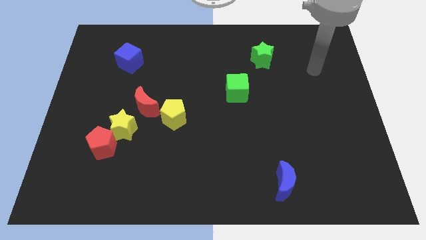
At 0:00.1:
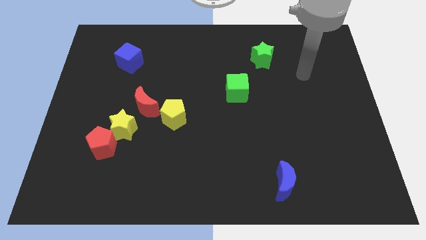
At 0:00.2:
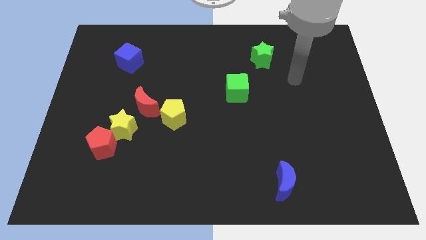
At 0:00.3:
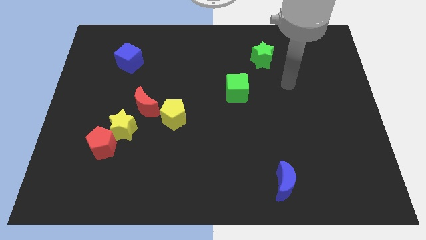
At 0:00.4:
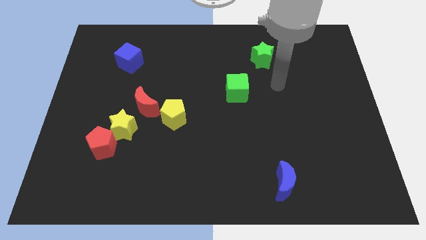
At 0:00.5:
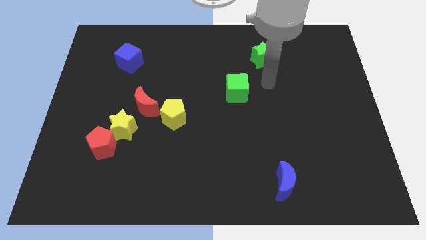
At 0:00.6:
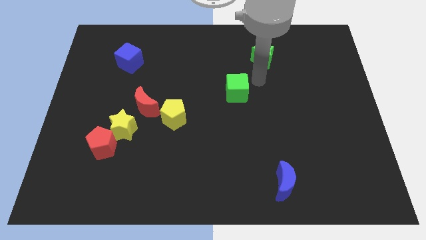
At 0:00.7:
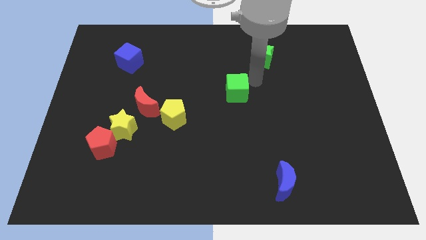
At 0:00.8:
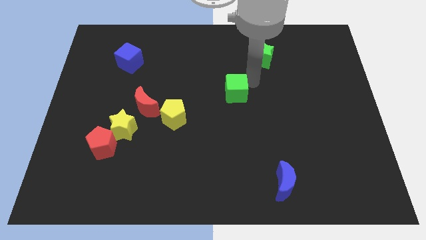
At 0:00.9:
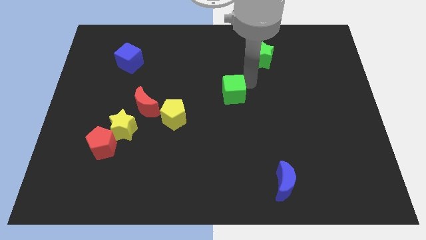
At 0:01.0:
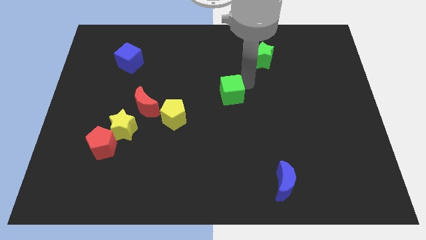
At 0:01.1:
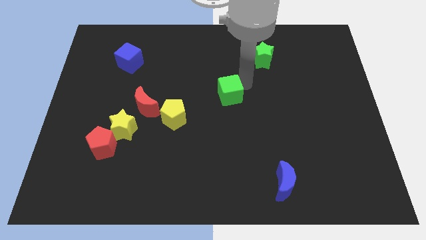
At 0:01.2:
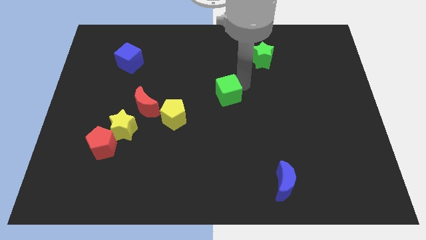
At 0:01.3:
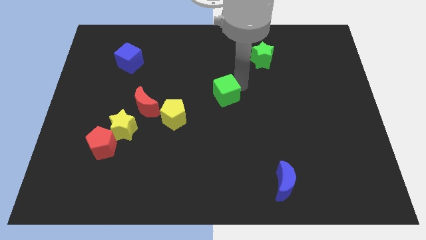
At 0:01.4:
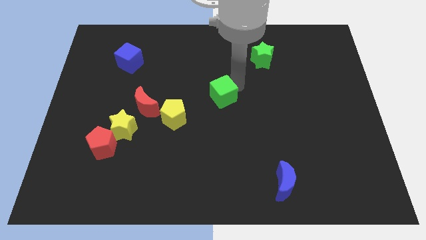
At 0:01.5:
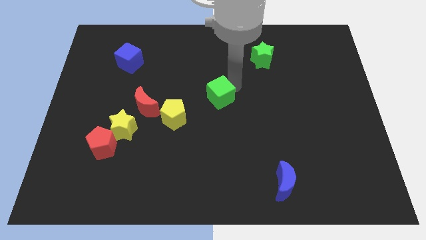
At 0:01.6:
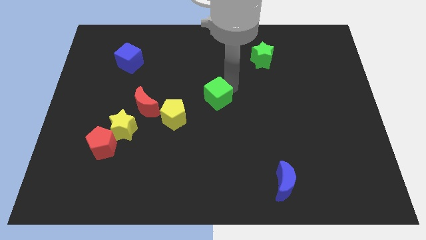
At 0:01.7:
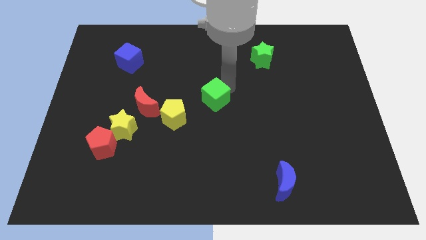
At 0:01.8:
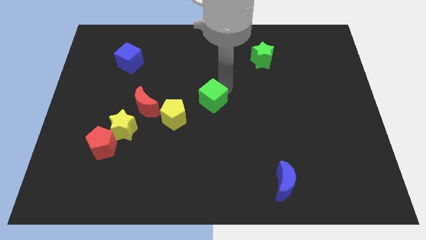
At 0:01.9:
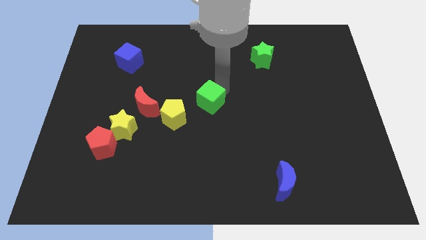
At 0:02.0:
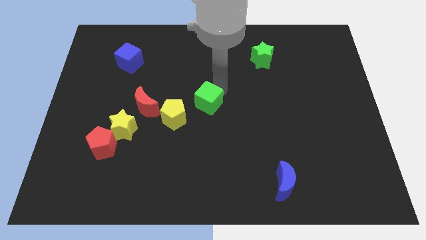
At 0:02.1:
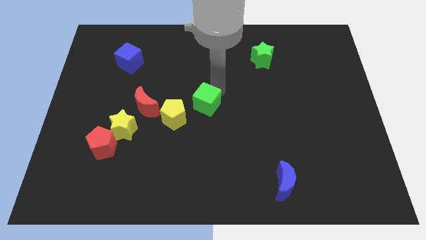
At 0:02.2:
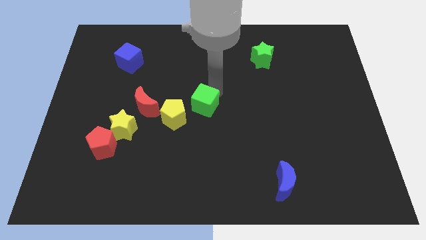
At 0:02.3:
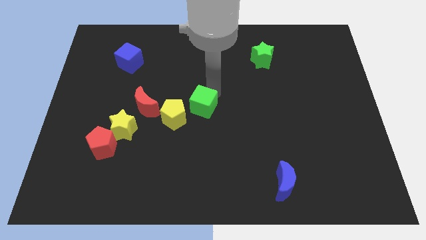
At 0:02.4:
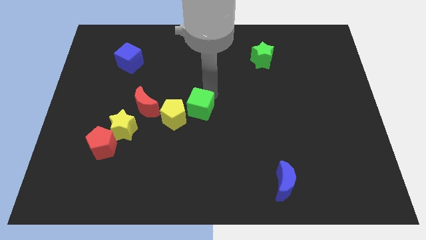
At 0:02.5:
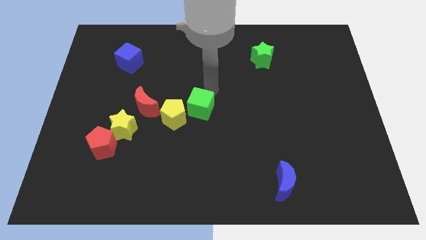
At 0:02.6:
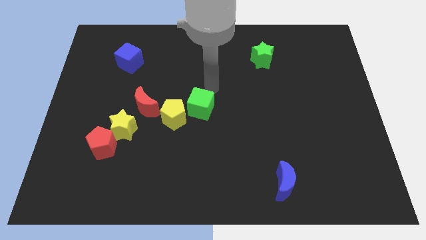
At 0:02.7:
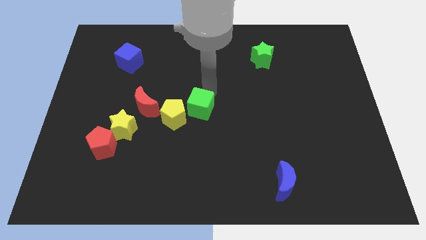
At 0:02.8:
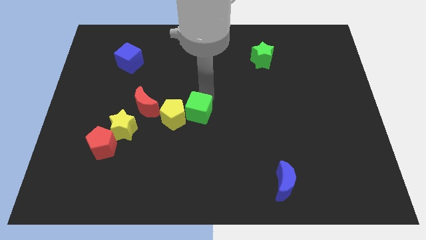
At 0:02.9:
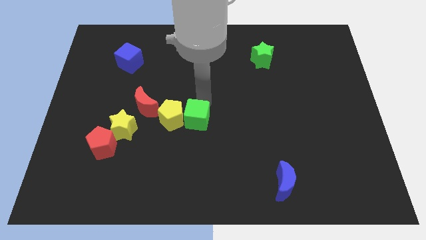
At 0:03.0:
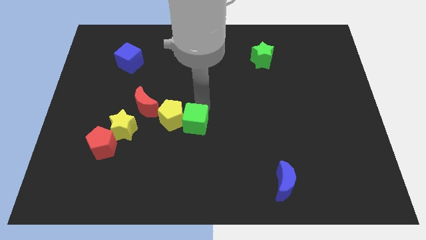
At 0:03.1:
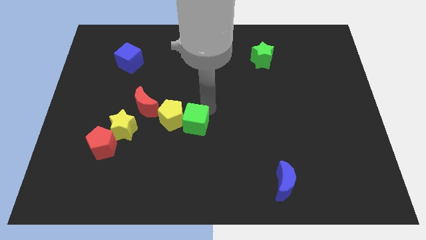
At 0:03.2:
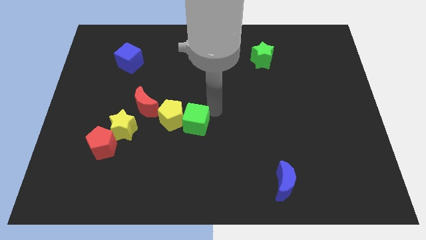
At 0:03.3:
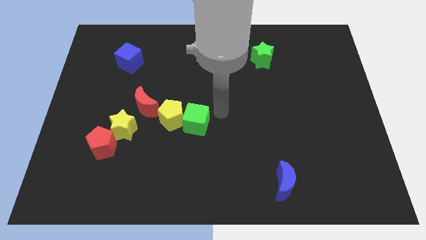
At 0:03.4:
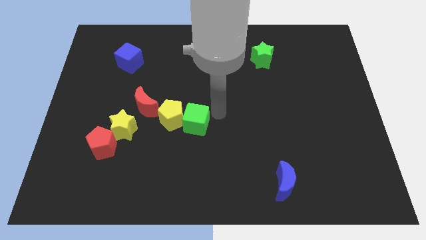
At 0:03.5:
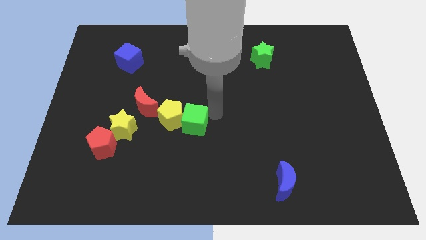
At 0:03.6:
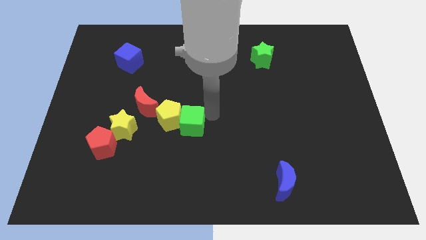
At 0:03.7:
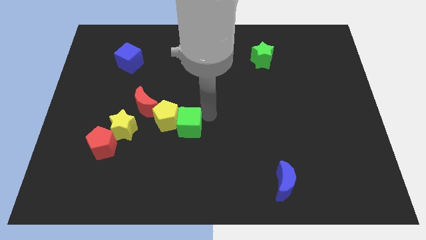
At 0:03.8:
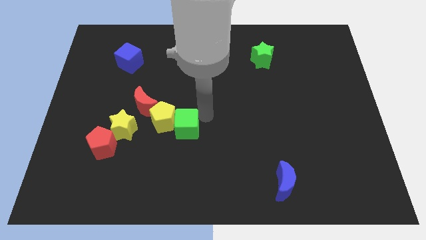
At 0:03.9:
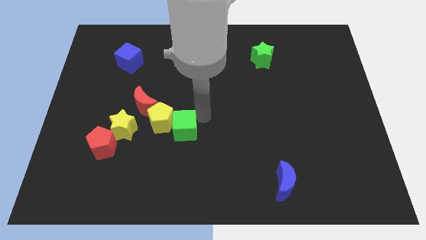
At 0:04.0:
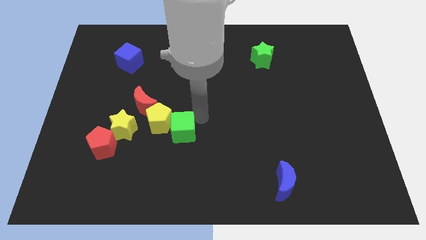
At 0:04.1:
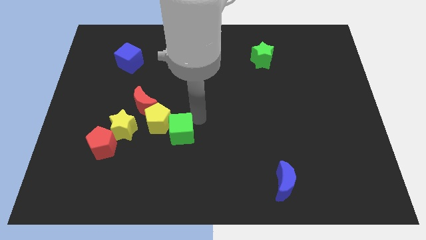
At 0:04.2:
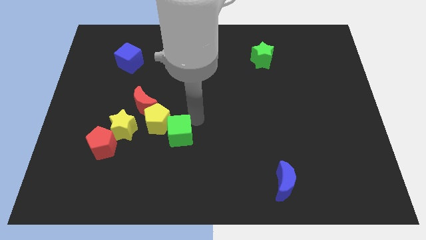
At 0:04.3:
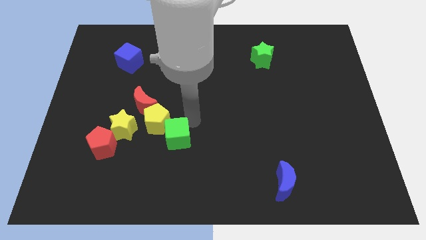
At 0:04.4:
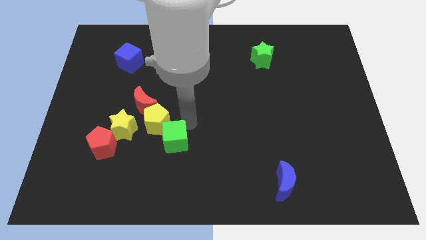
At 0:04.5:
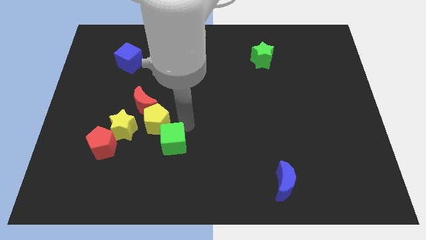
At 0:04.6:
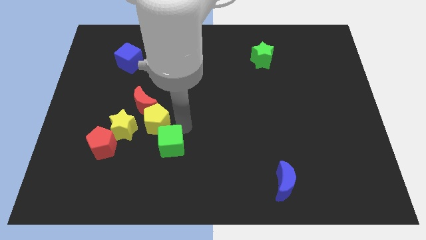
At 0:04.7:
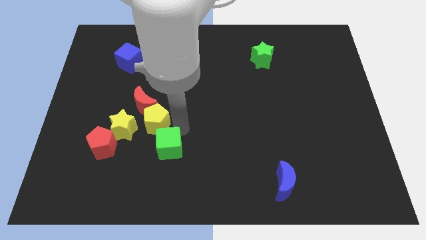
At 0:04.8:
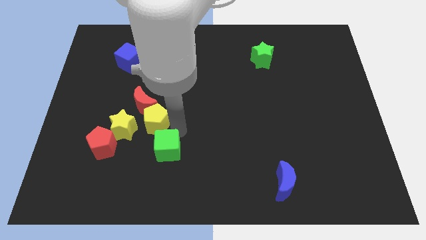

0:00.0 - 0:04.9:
move the green cube to the bottom right of the yellow star

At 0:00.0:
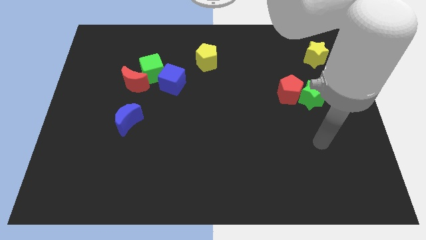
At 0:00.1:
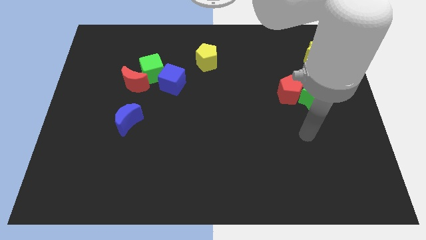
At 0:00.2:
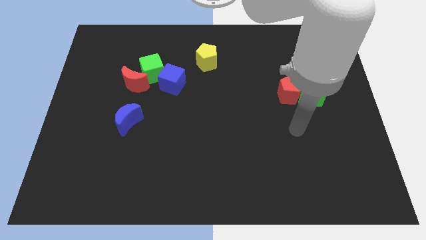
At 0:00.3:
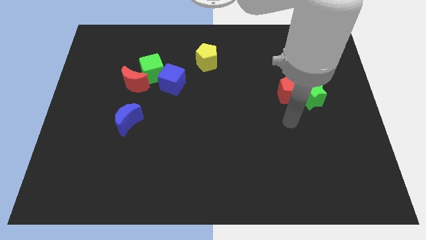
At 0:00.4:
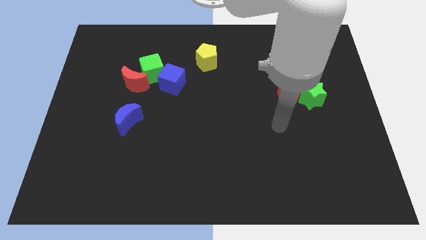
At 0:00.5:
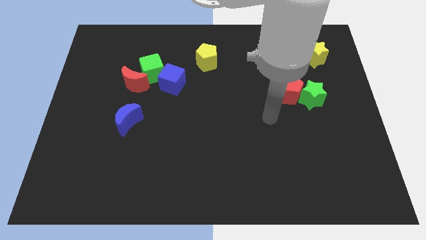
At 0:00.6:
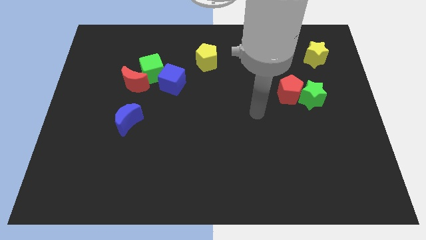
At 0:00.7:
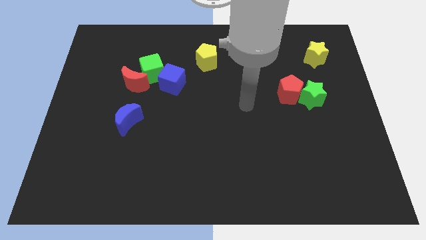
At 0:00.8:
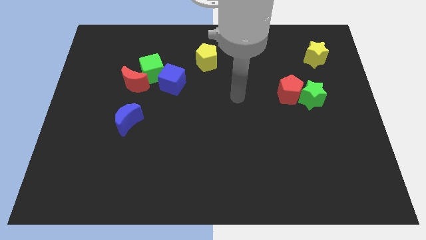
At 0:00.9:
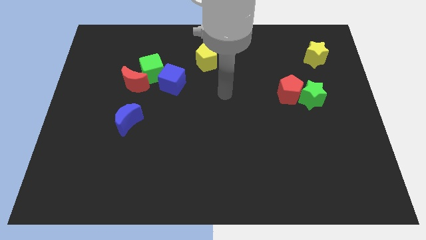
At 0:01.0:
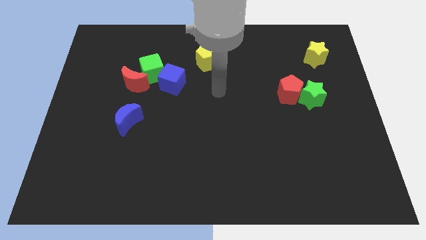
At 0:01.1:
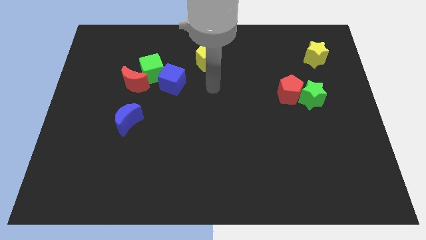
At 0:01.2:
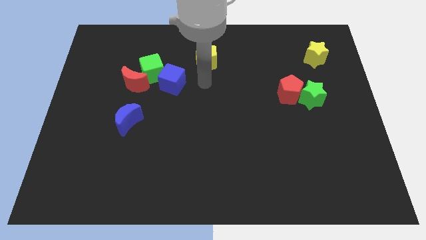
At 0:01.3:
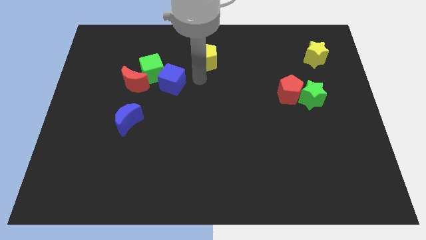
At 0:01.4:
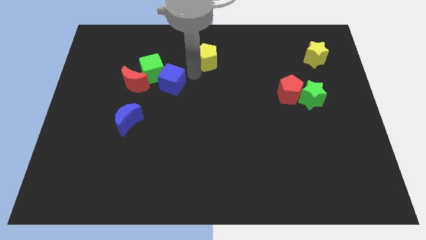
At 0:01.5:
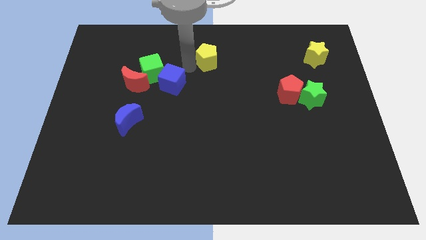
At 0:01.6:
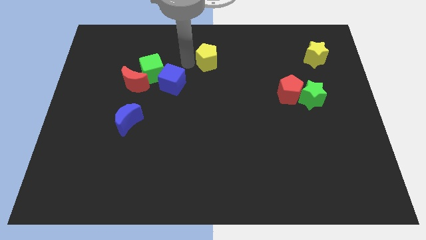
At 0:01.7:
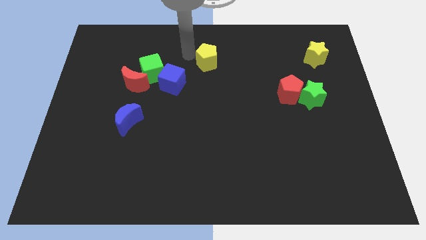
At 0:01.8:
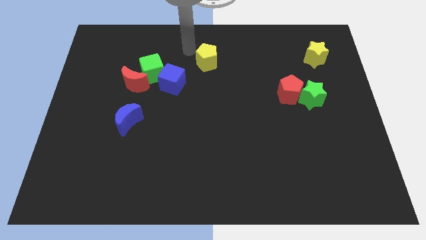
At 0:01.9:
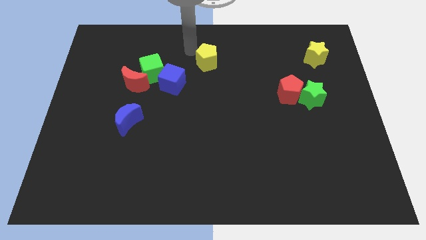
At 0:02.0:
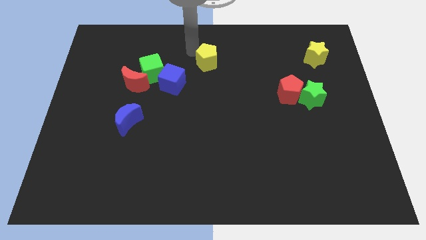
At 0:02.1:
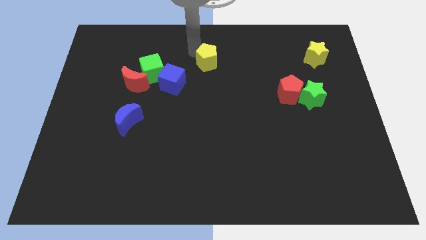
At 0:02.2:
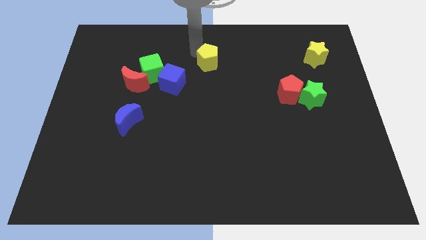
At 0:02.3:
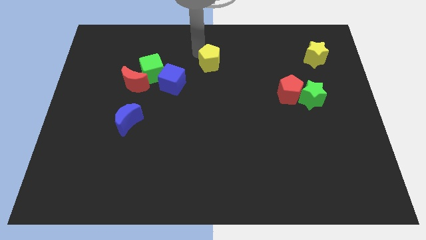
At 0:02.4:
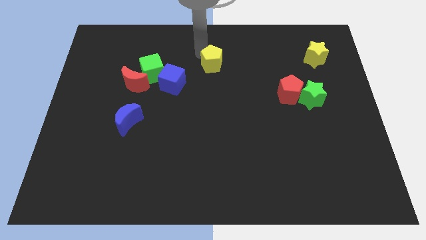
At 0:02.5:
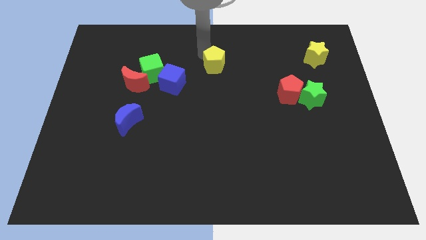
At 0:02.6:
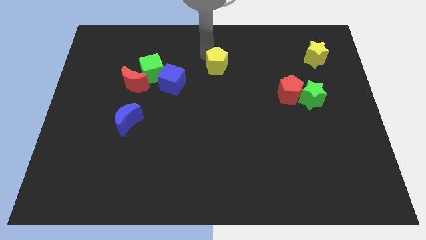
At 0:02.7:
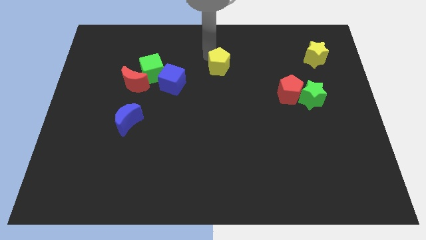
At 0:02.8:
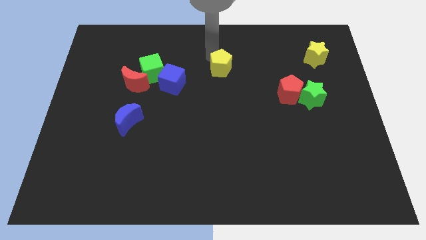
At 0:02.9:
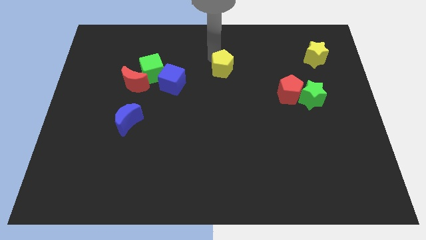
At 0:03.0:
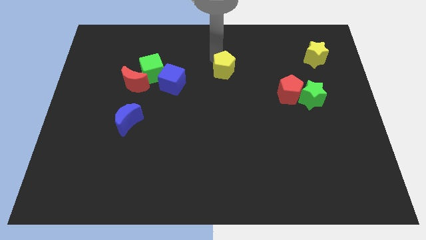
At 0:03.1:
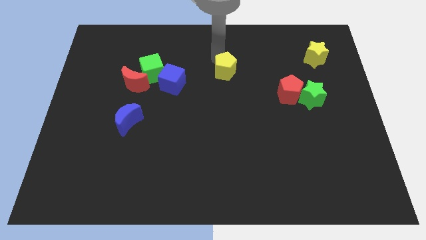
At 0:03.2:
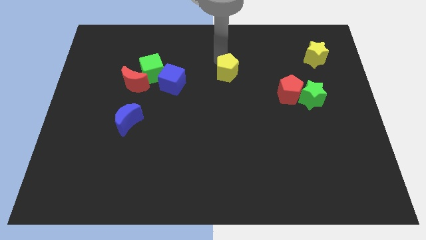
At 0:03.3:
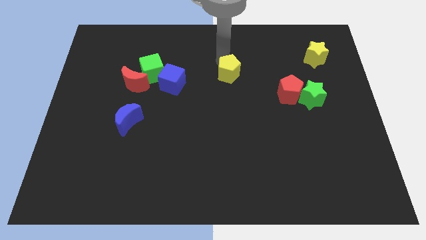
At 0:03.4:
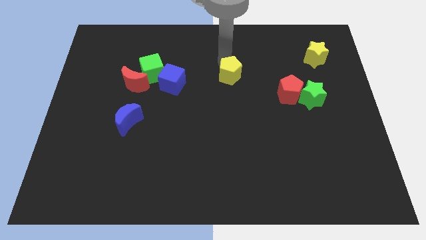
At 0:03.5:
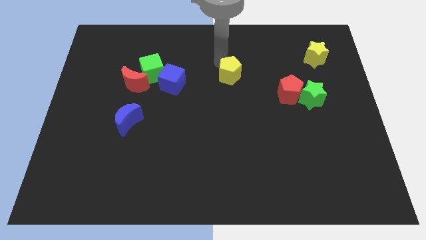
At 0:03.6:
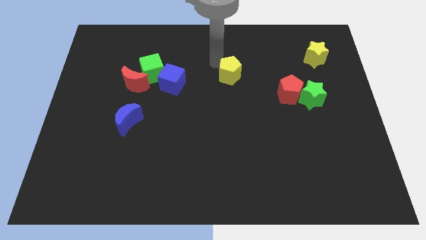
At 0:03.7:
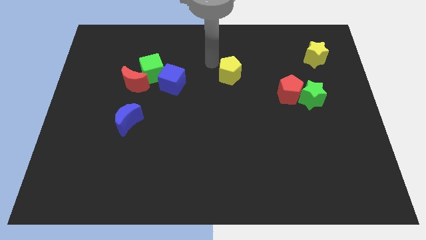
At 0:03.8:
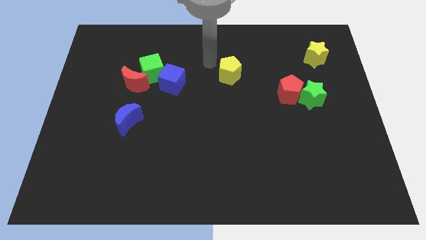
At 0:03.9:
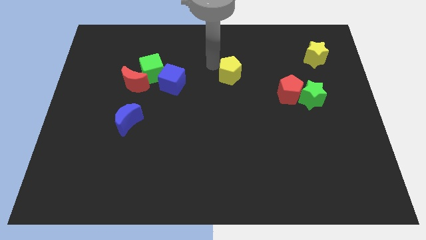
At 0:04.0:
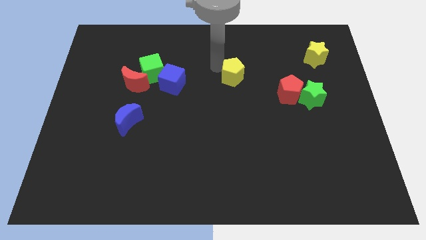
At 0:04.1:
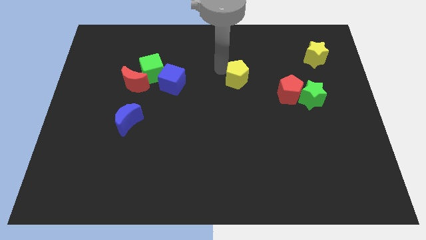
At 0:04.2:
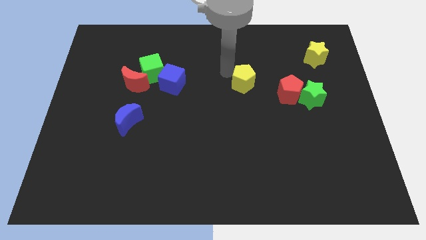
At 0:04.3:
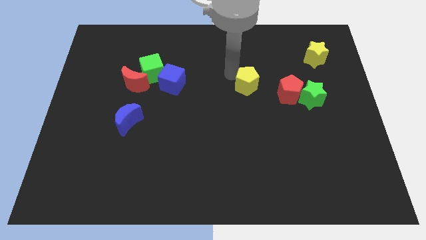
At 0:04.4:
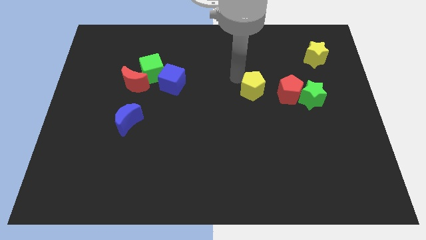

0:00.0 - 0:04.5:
put the yellow pentagon just left of the green star
